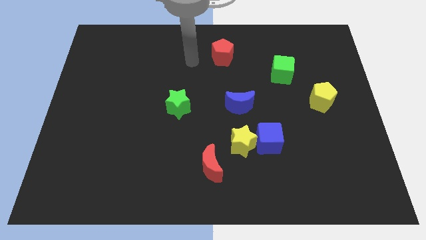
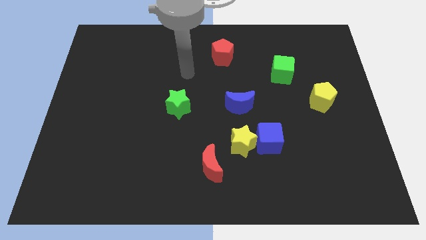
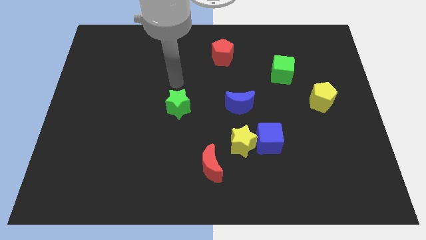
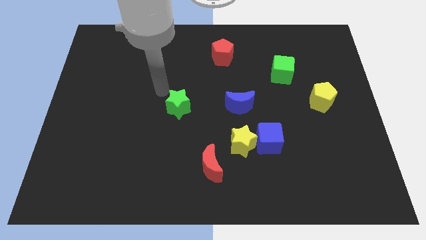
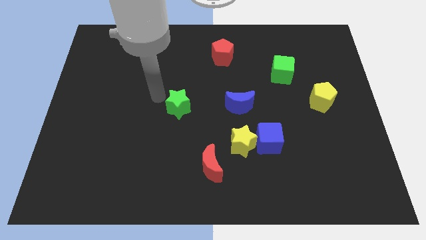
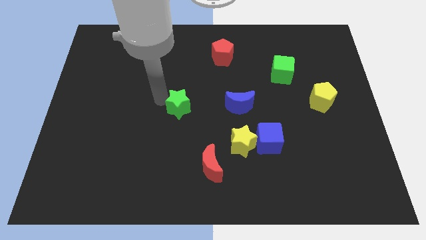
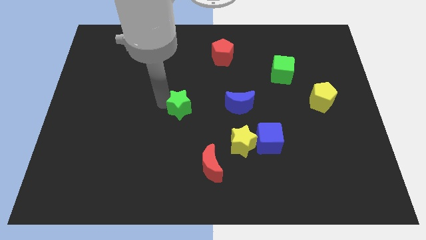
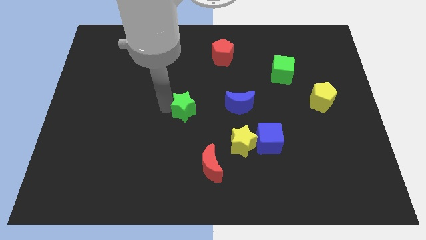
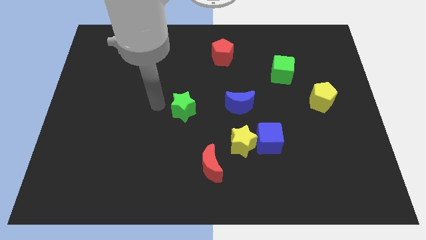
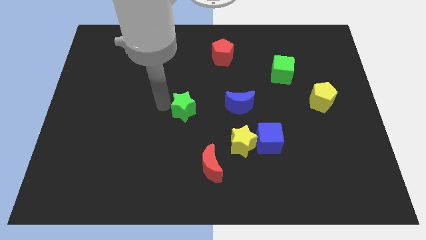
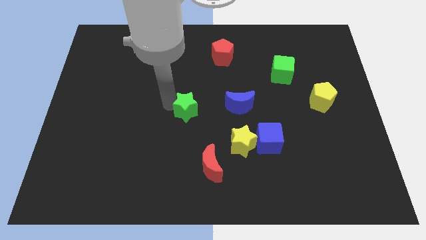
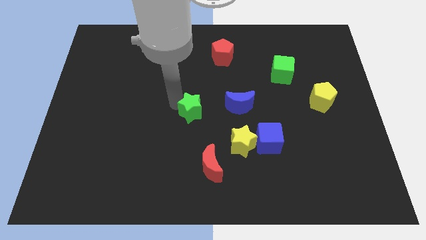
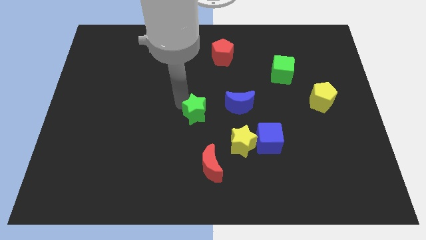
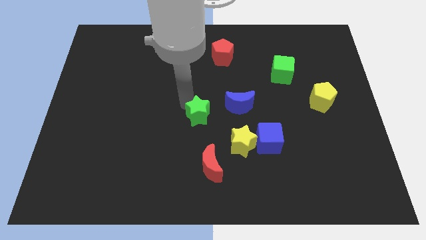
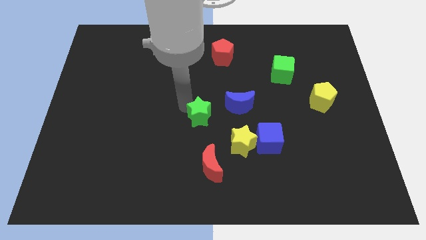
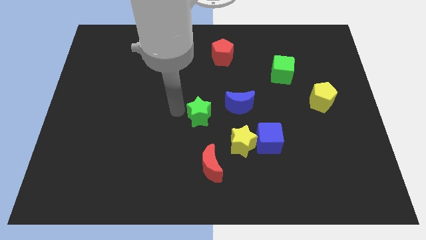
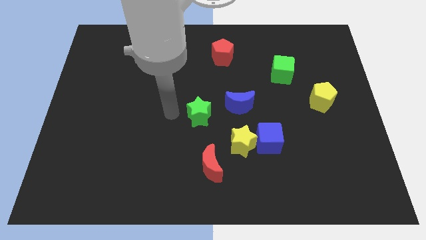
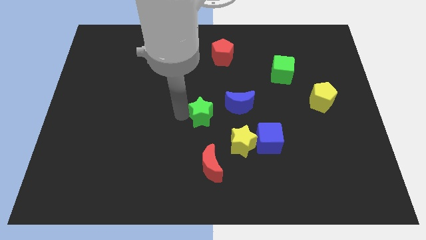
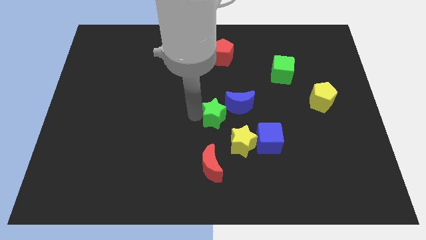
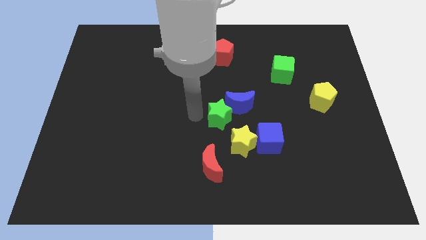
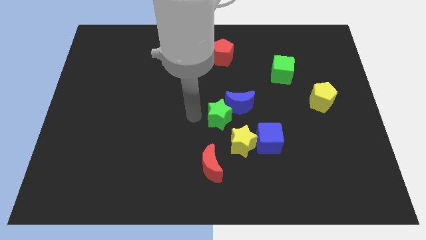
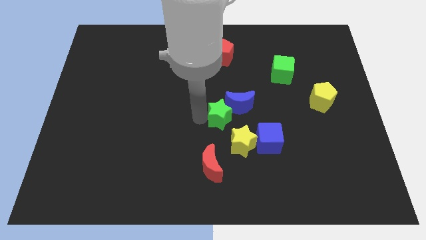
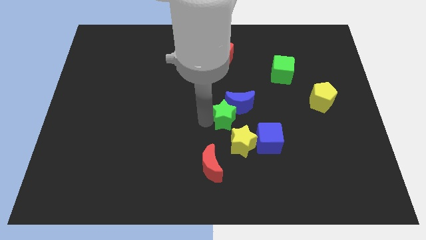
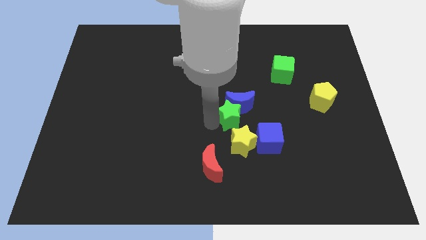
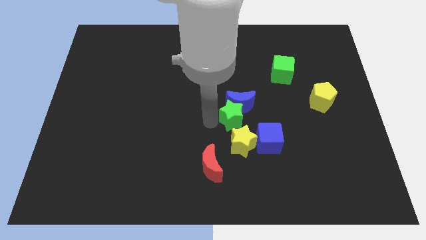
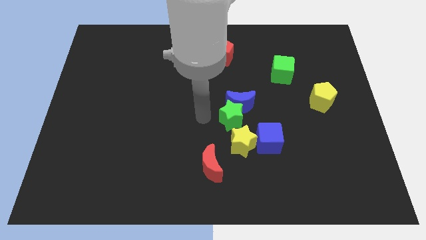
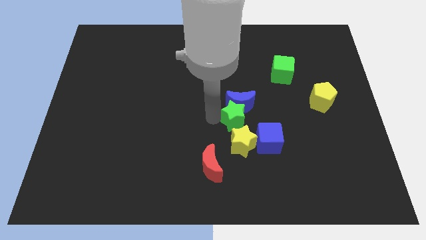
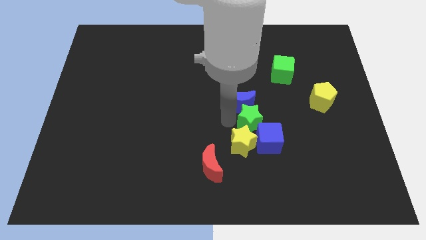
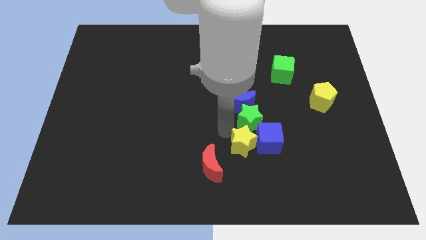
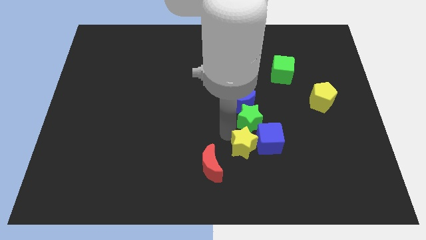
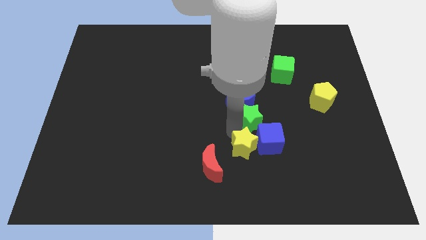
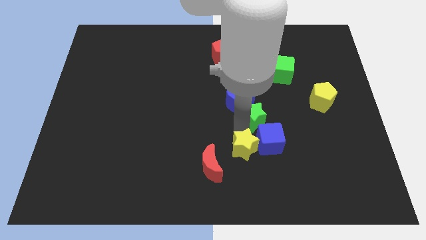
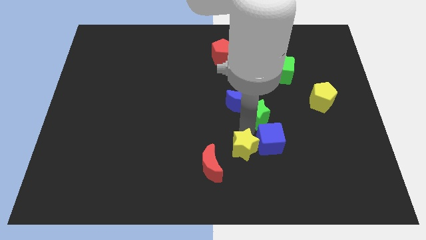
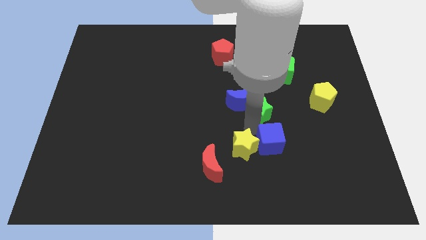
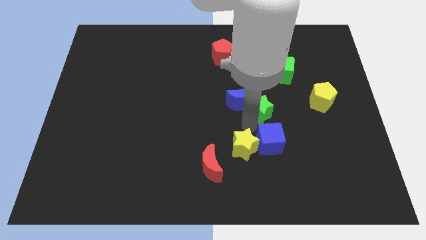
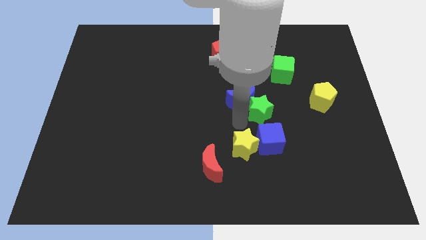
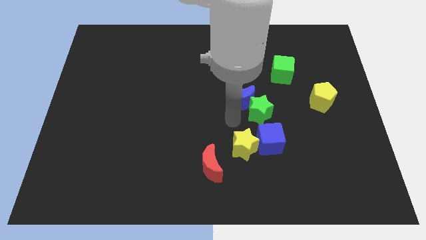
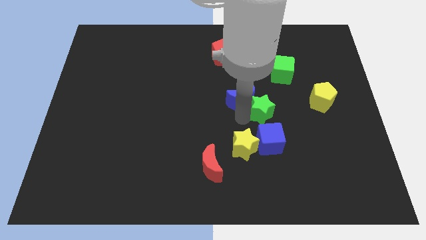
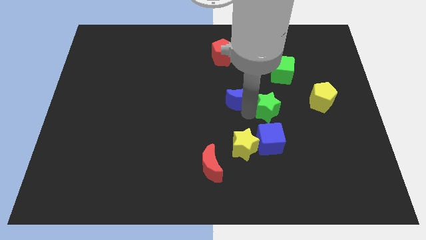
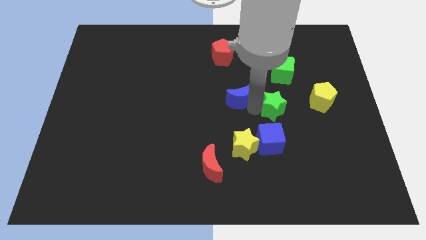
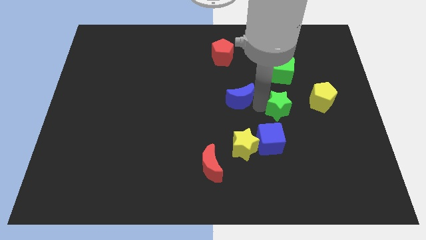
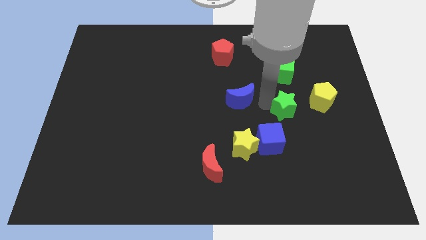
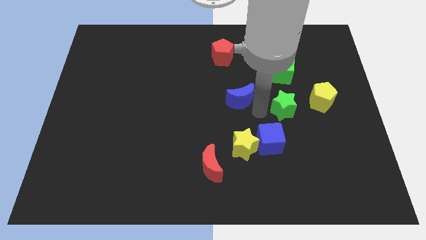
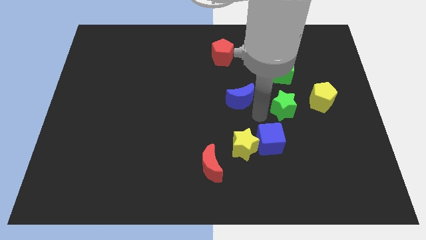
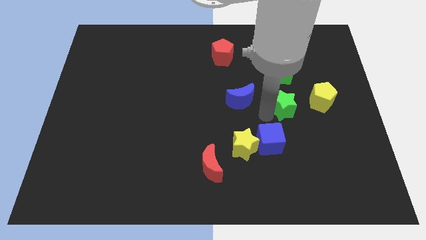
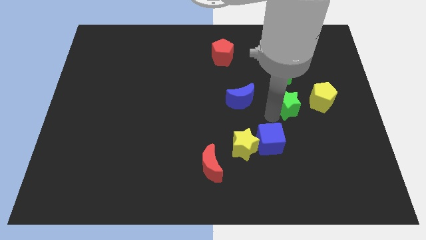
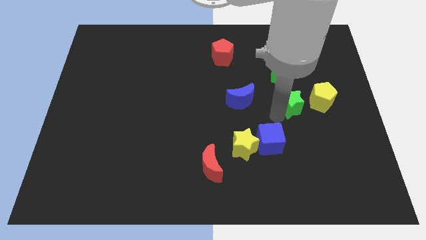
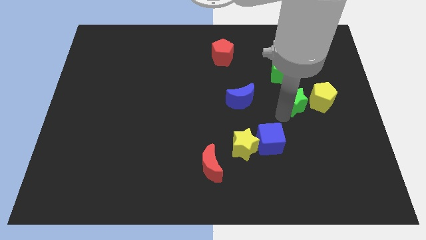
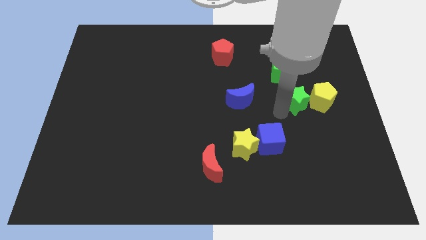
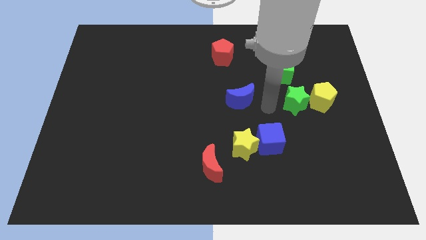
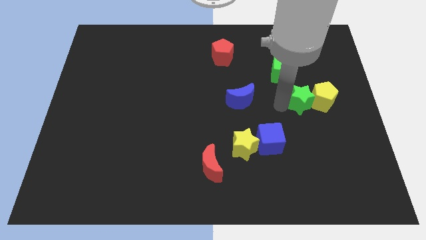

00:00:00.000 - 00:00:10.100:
move the green star close to the yellow pentagon

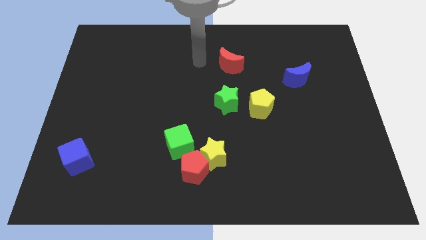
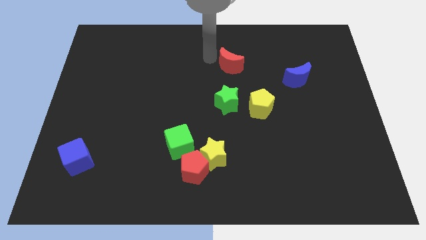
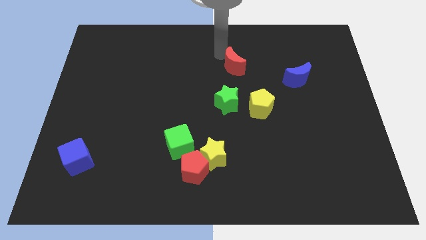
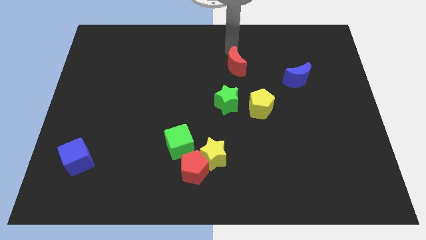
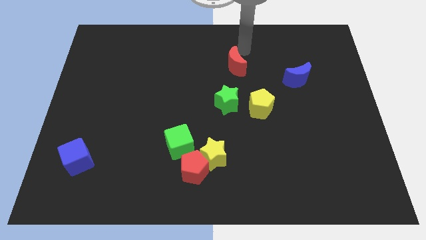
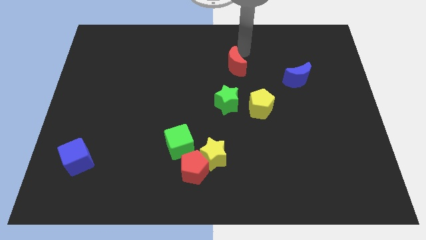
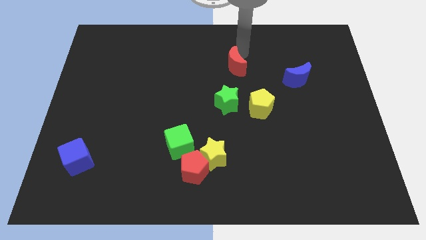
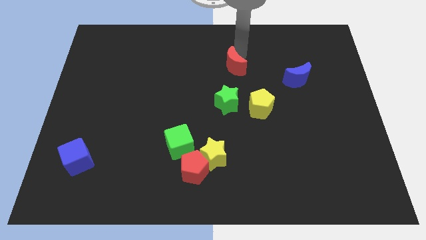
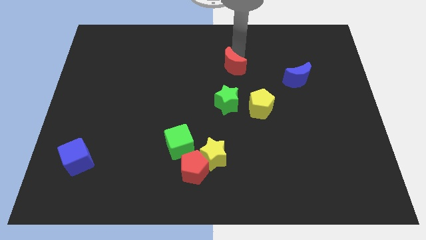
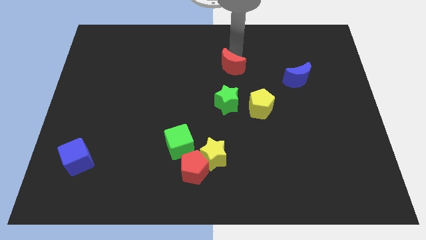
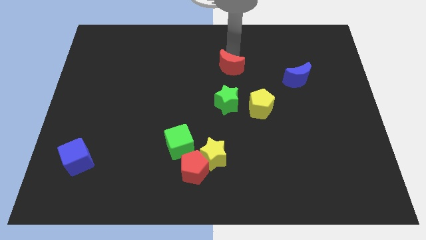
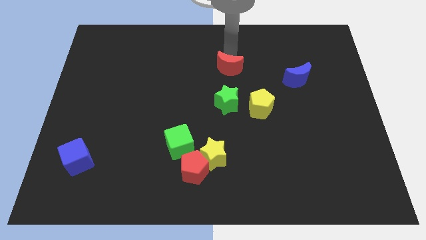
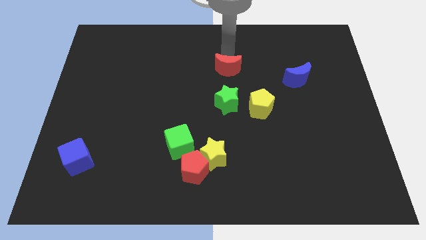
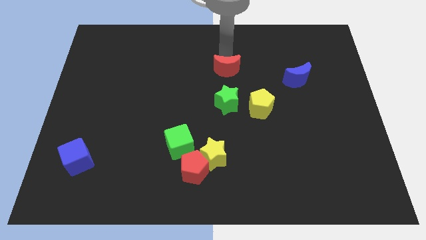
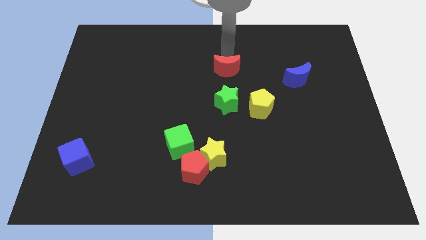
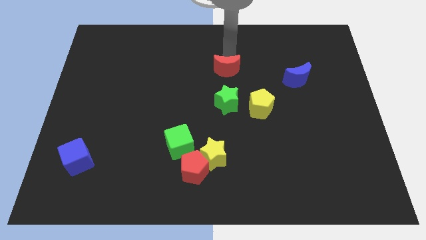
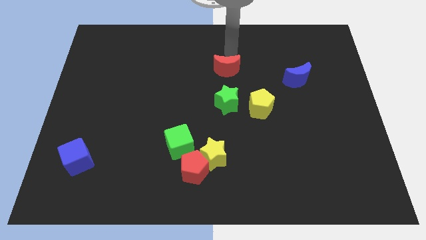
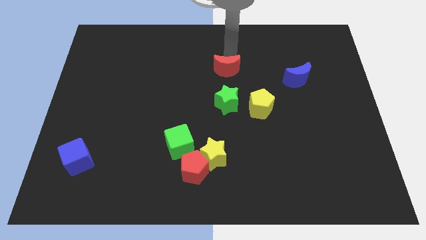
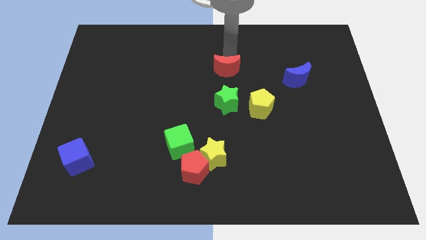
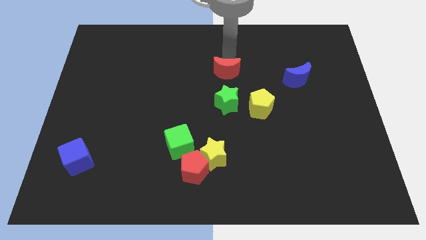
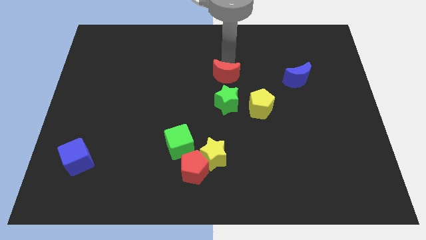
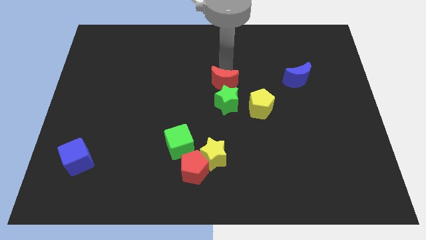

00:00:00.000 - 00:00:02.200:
move the red moon close to the green star

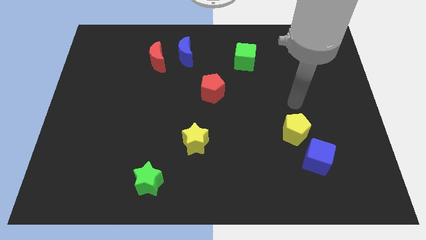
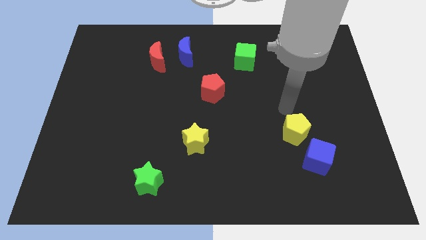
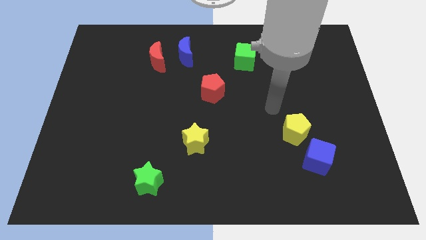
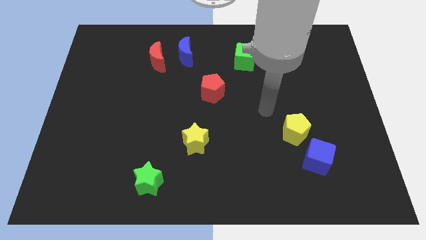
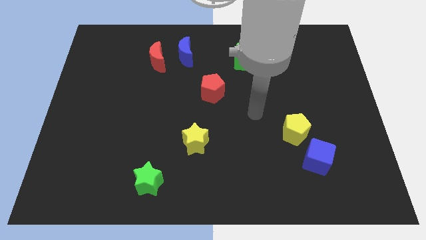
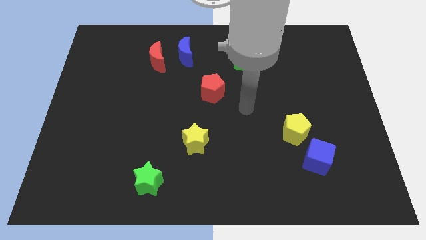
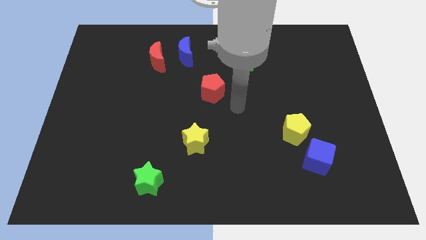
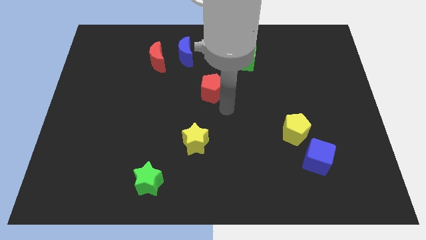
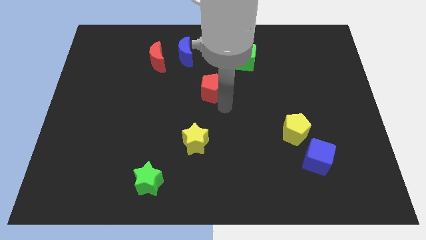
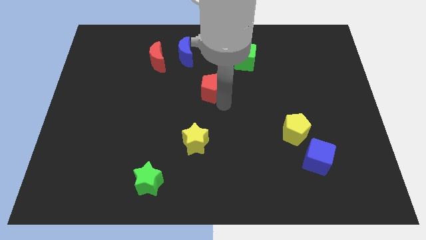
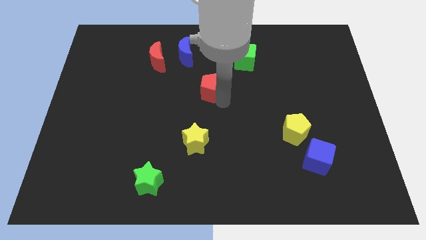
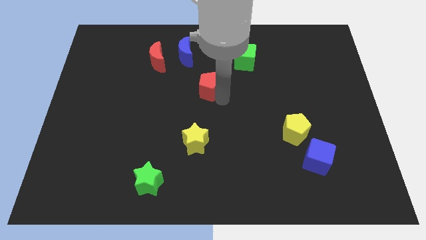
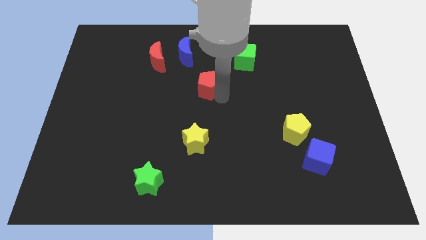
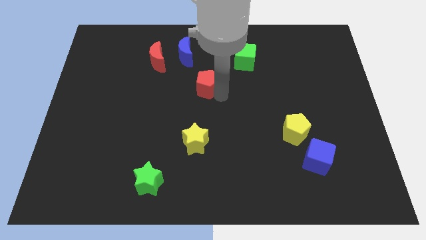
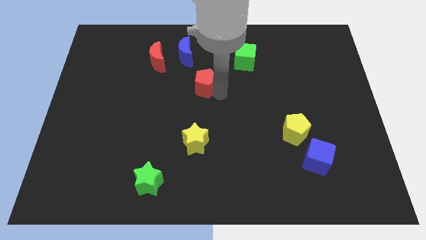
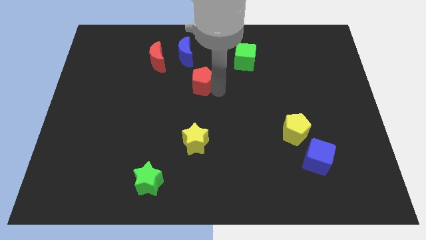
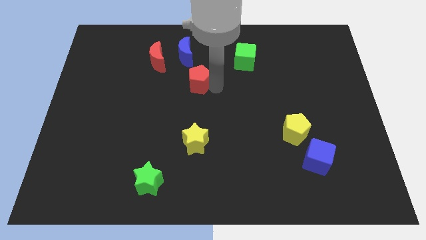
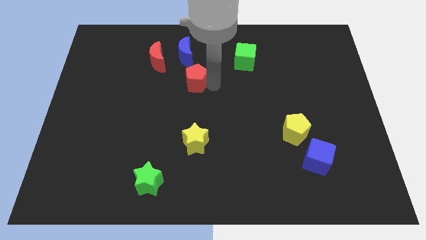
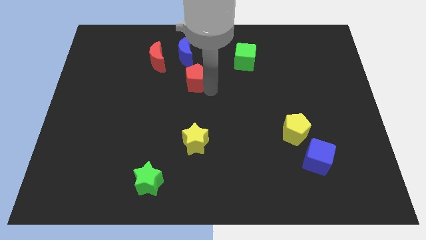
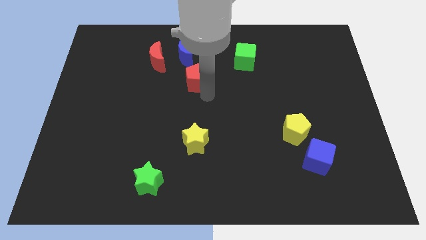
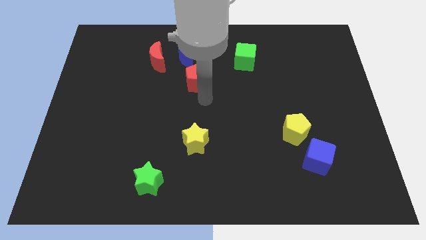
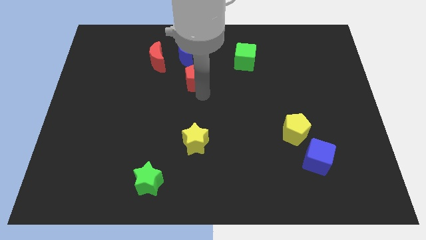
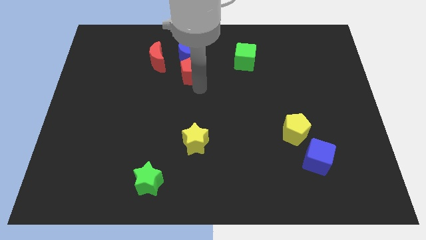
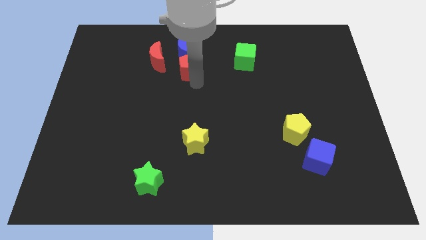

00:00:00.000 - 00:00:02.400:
move the red pentagon to the blue moon
